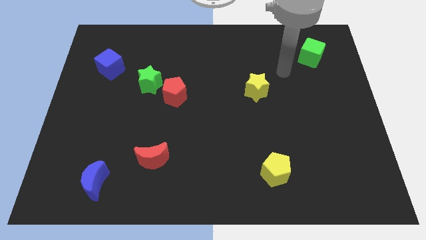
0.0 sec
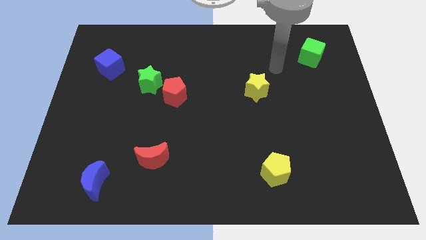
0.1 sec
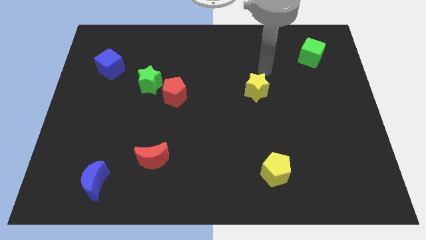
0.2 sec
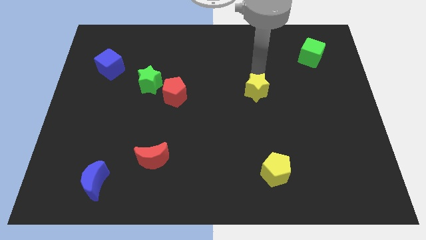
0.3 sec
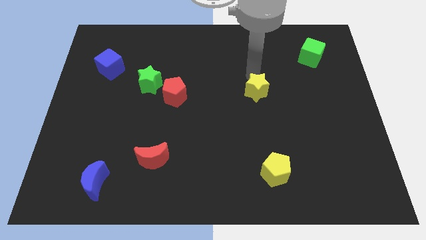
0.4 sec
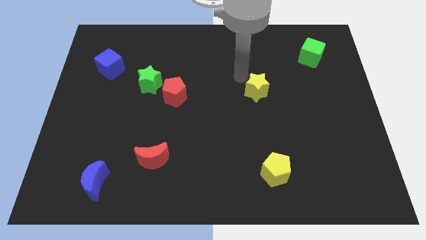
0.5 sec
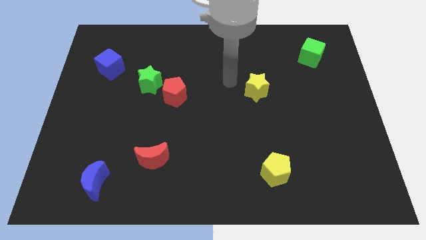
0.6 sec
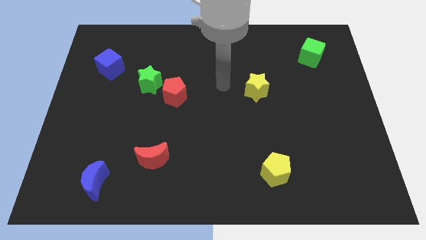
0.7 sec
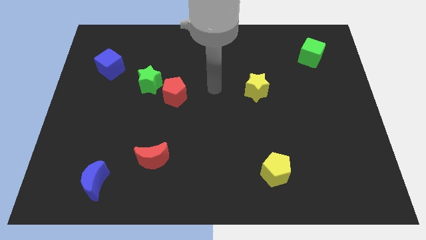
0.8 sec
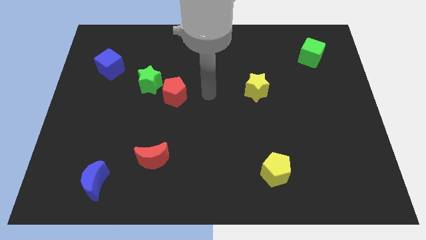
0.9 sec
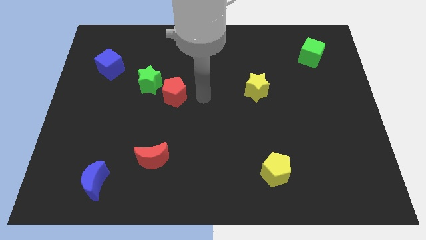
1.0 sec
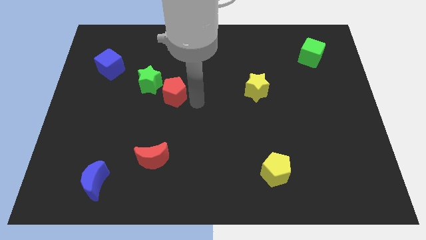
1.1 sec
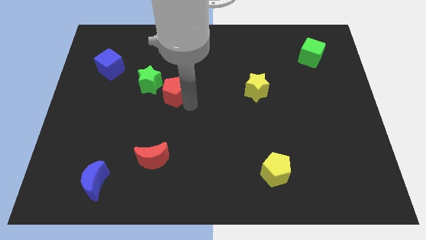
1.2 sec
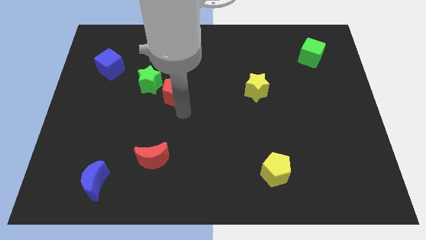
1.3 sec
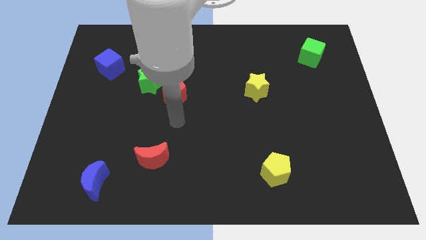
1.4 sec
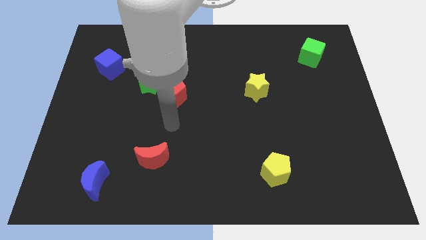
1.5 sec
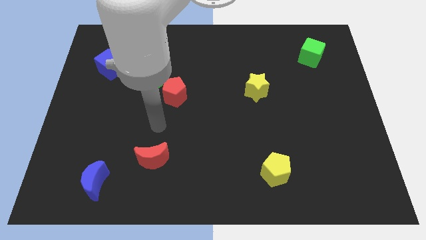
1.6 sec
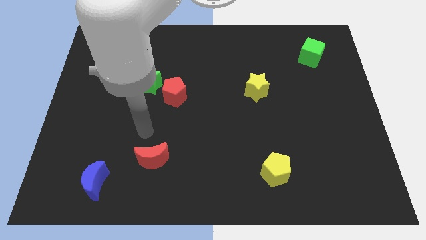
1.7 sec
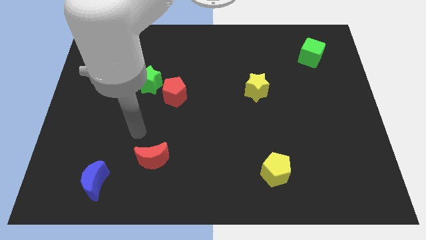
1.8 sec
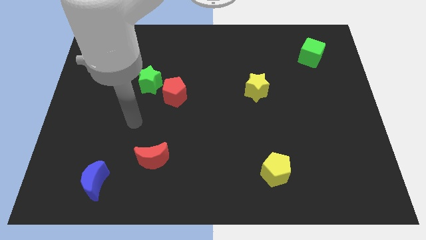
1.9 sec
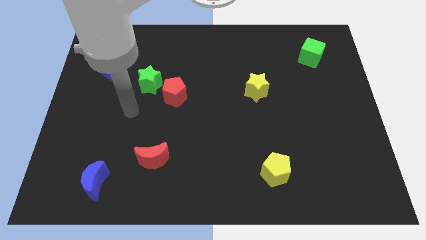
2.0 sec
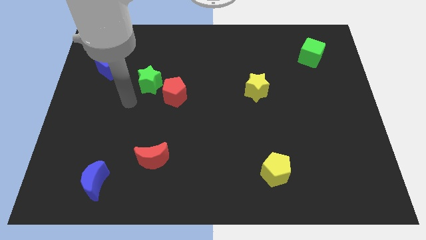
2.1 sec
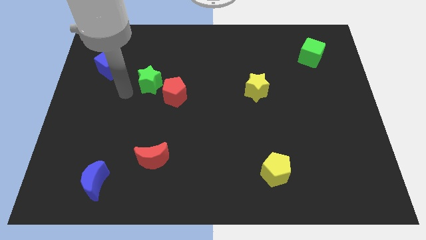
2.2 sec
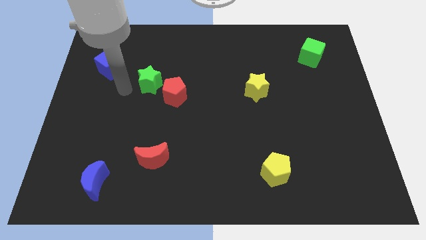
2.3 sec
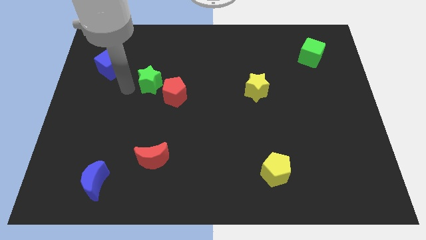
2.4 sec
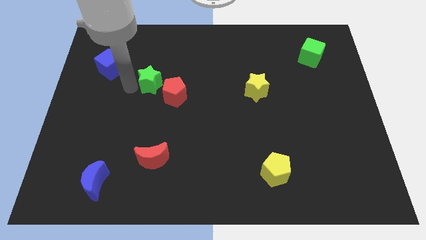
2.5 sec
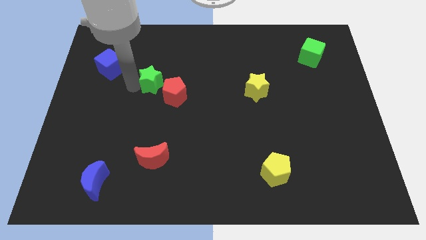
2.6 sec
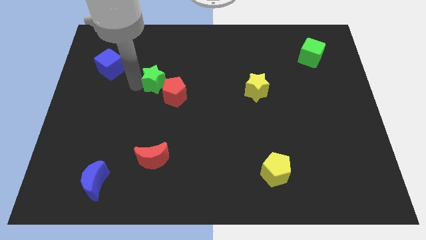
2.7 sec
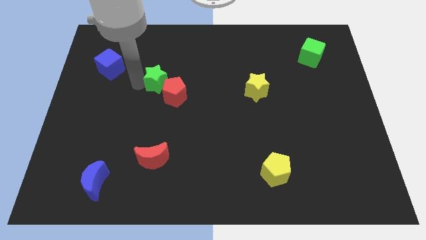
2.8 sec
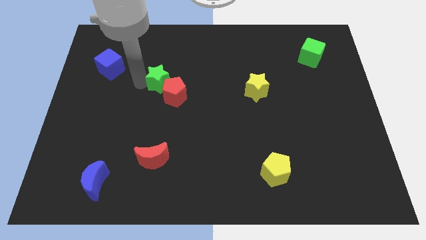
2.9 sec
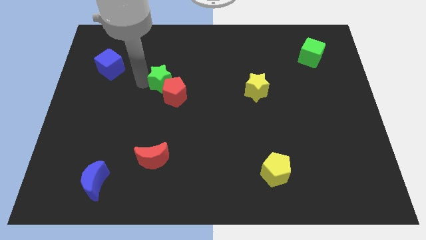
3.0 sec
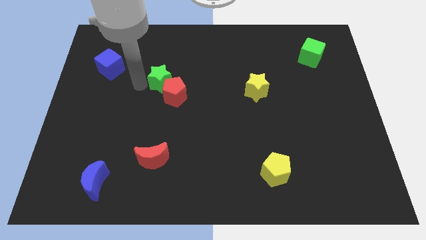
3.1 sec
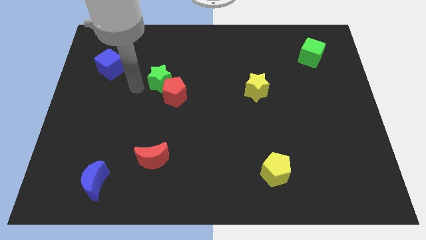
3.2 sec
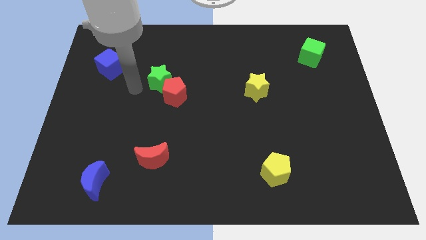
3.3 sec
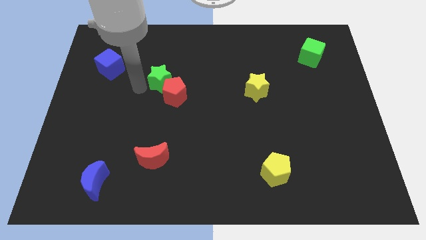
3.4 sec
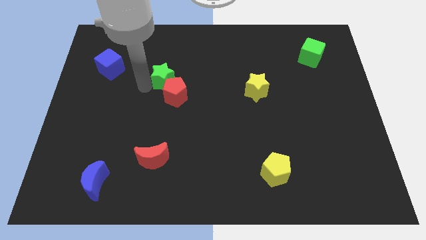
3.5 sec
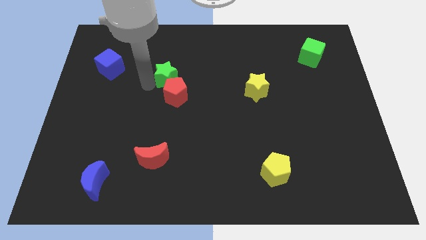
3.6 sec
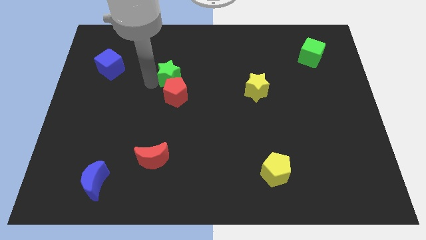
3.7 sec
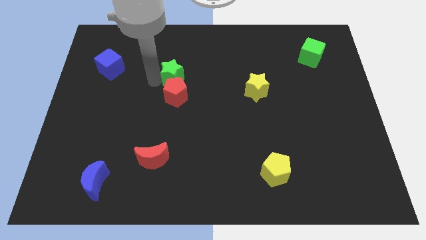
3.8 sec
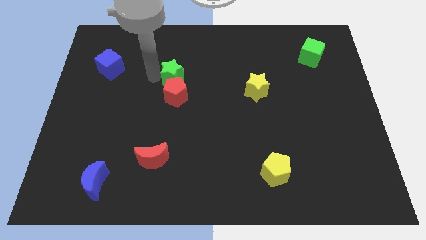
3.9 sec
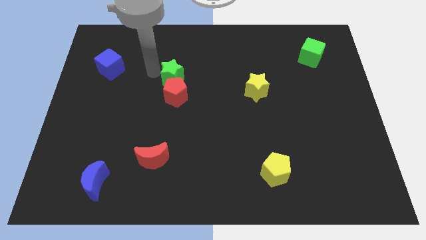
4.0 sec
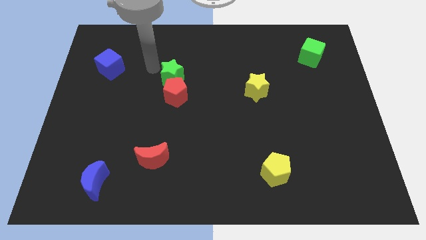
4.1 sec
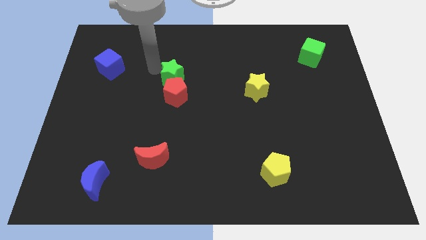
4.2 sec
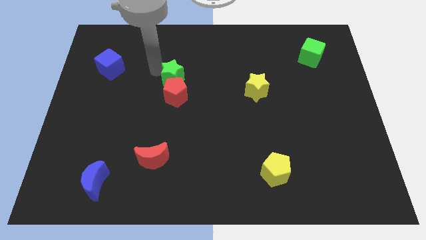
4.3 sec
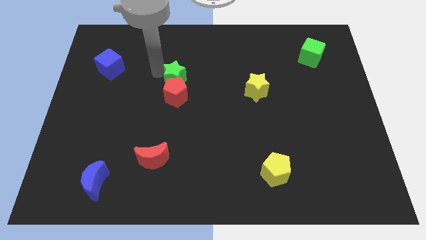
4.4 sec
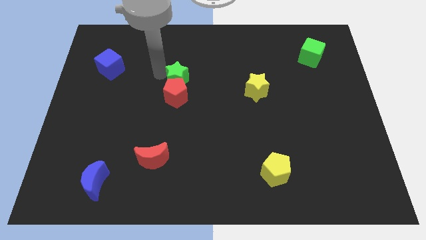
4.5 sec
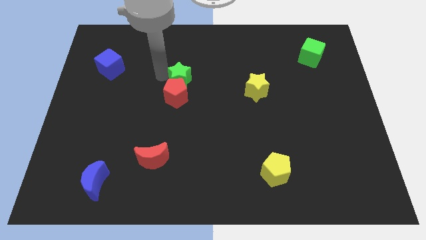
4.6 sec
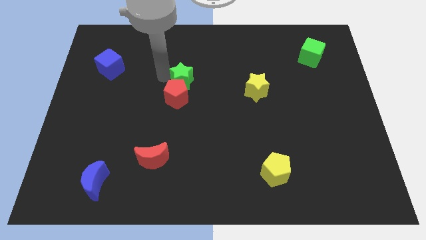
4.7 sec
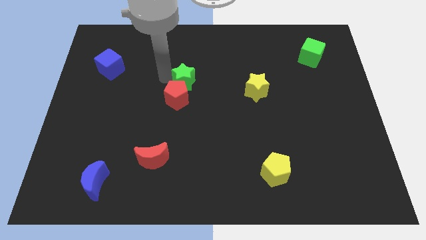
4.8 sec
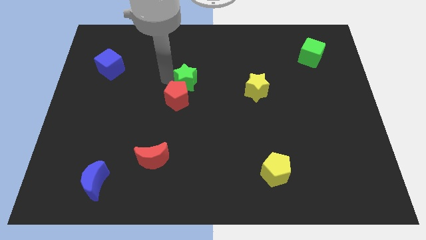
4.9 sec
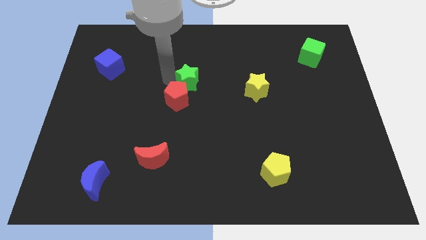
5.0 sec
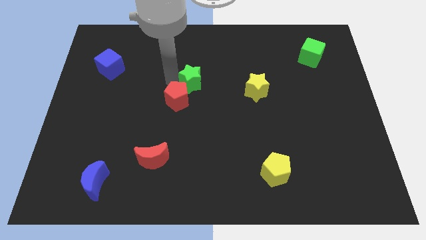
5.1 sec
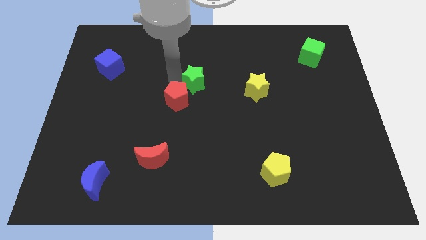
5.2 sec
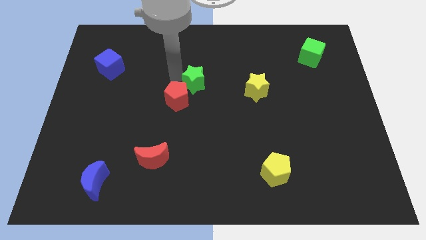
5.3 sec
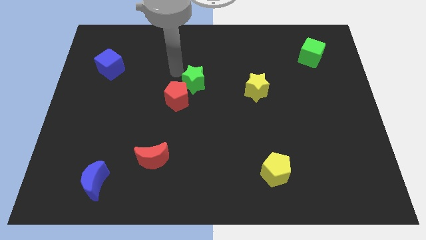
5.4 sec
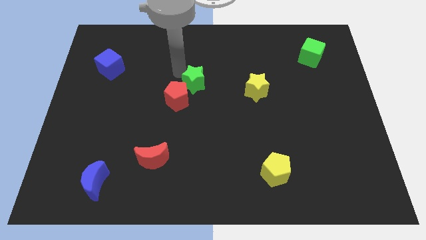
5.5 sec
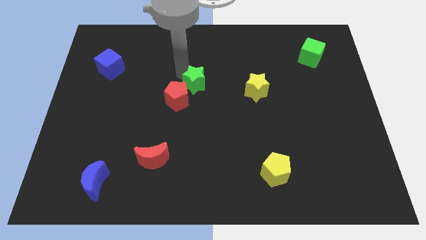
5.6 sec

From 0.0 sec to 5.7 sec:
slide the green star to the right of the red pentagon

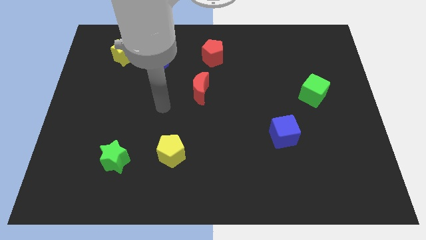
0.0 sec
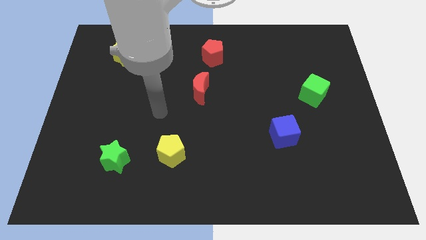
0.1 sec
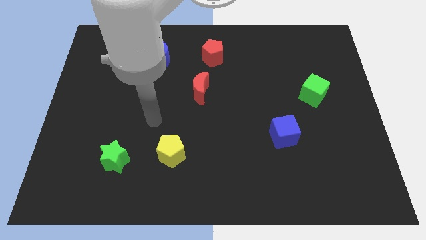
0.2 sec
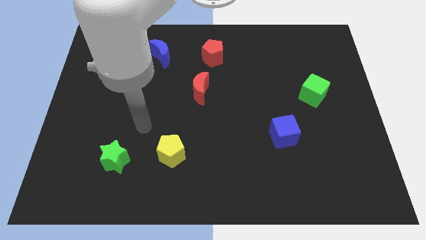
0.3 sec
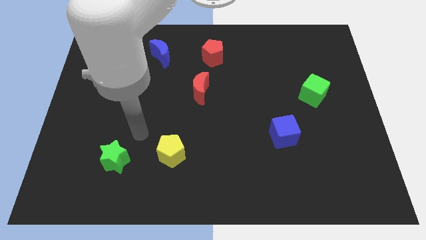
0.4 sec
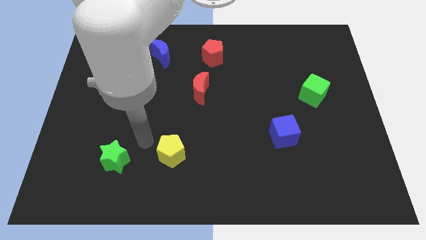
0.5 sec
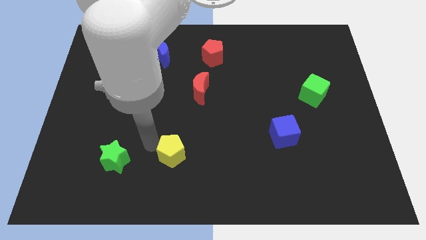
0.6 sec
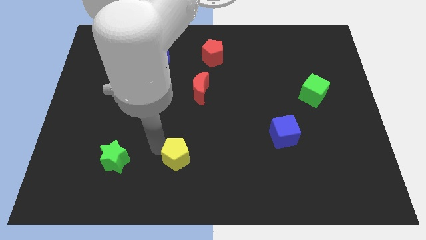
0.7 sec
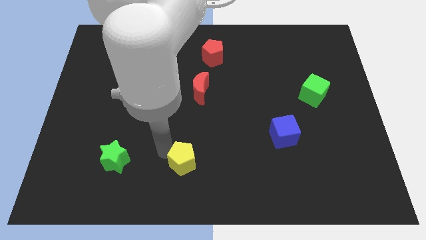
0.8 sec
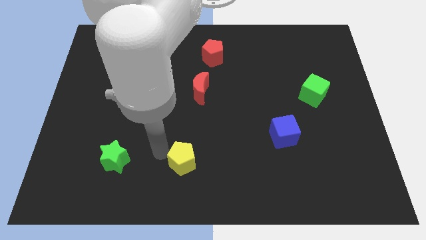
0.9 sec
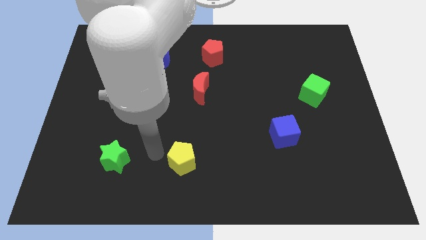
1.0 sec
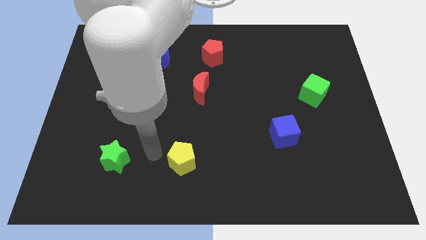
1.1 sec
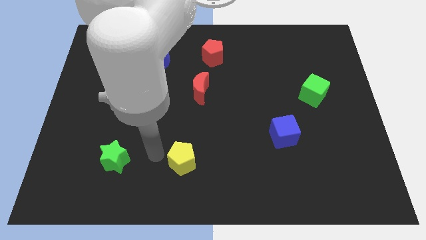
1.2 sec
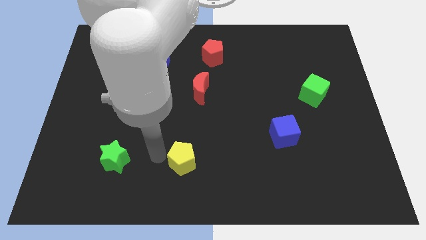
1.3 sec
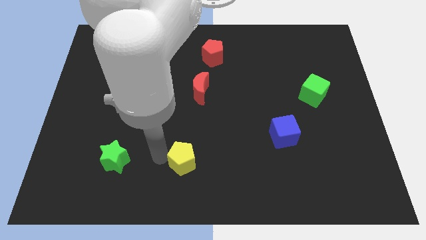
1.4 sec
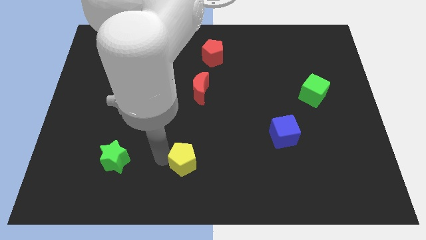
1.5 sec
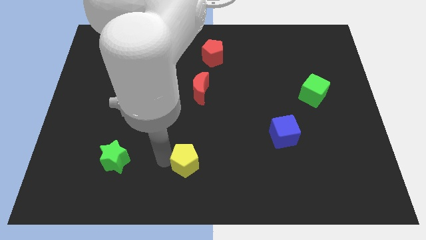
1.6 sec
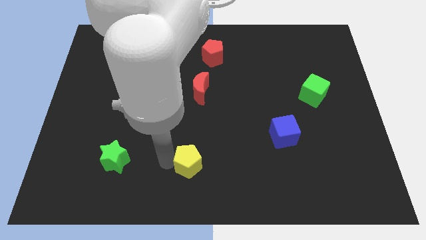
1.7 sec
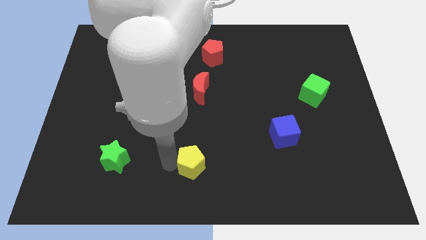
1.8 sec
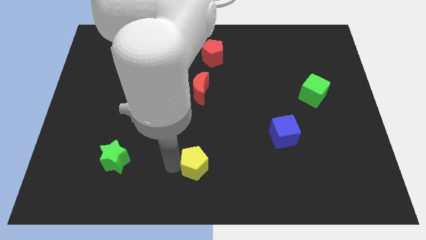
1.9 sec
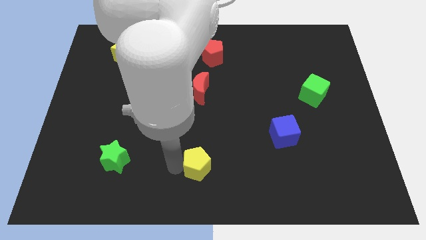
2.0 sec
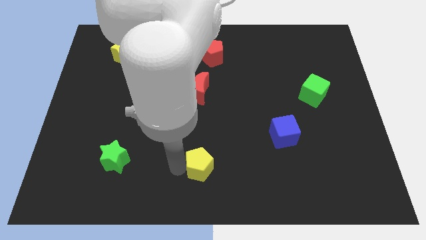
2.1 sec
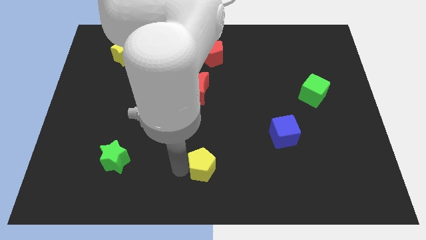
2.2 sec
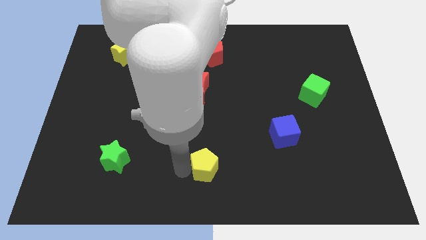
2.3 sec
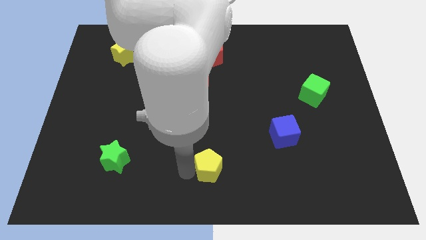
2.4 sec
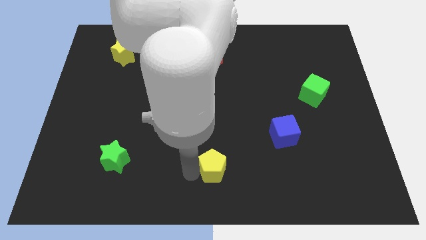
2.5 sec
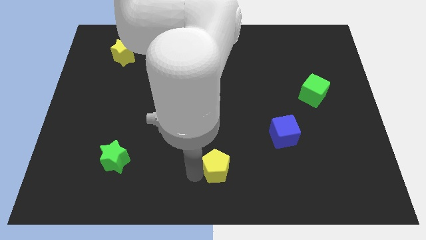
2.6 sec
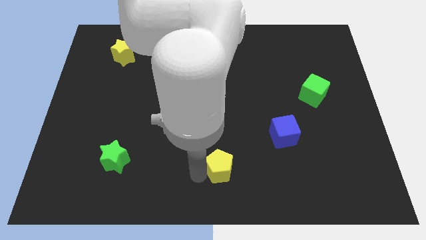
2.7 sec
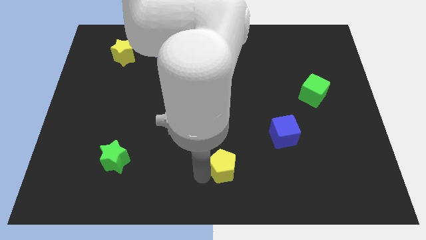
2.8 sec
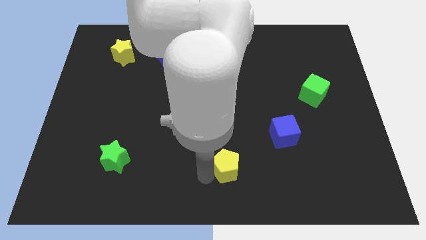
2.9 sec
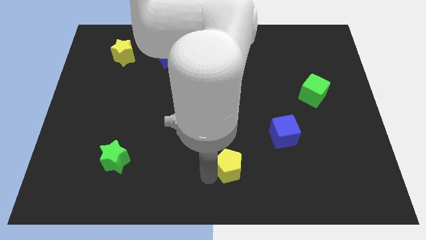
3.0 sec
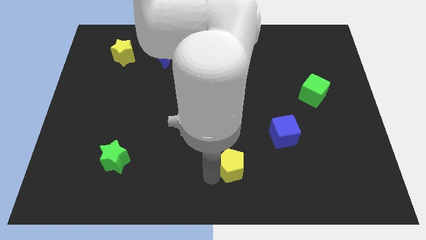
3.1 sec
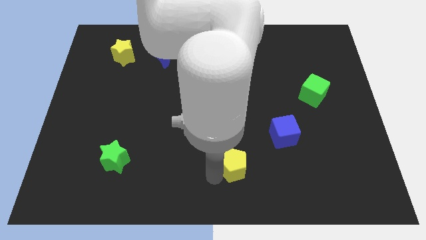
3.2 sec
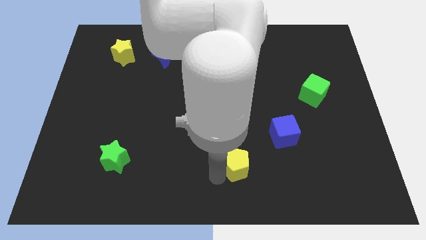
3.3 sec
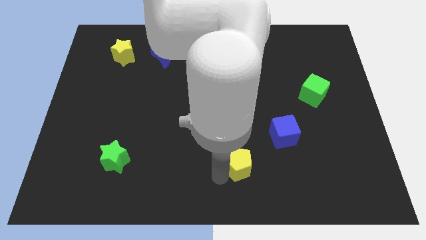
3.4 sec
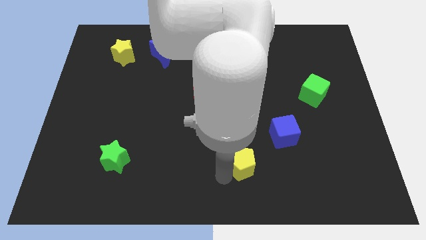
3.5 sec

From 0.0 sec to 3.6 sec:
push the yellow pentagon to the bottom left of the blue cube
